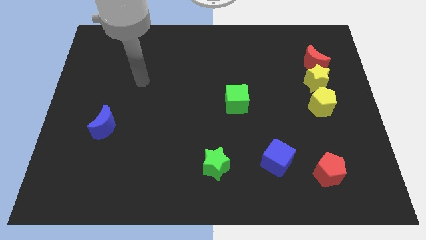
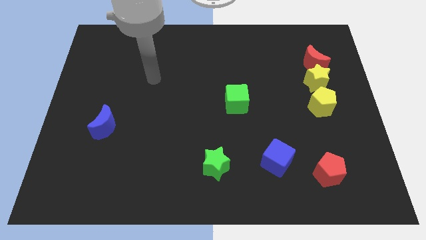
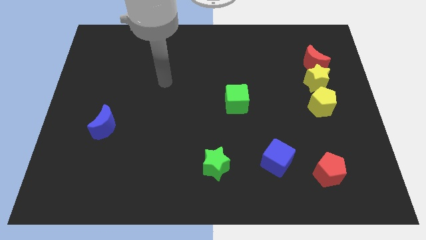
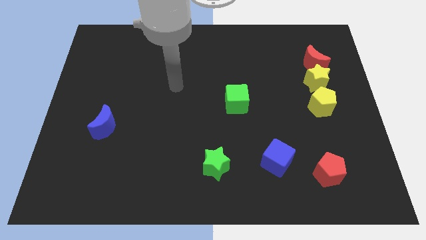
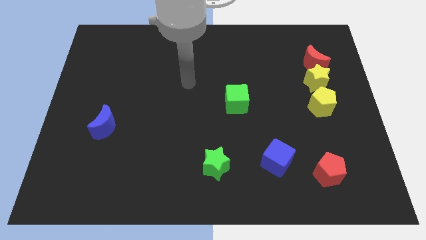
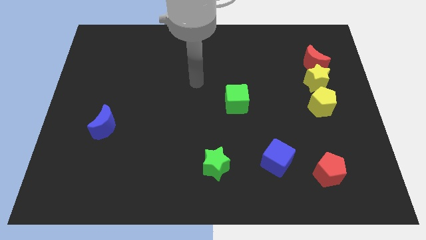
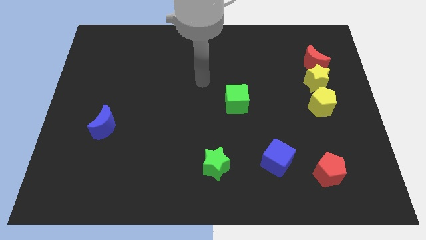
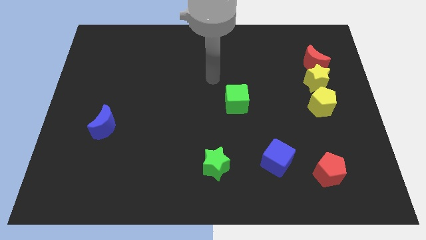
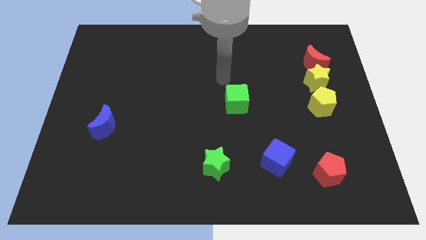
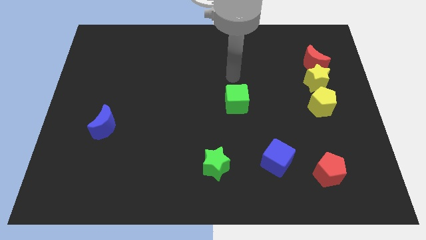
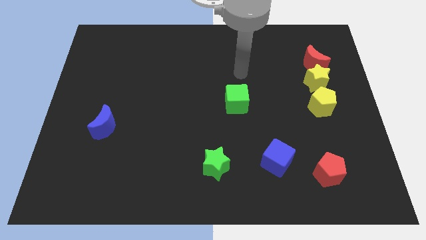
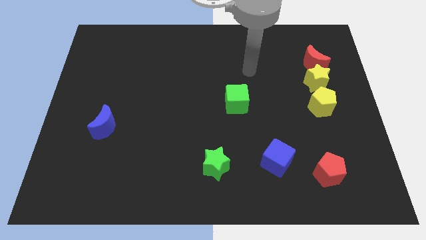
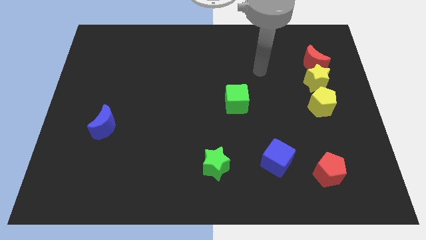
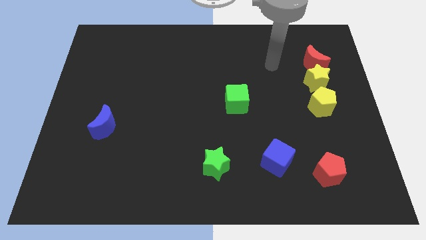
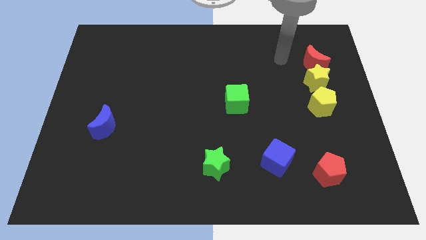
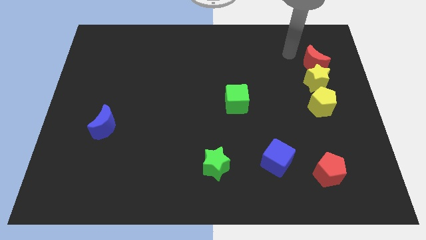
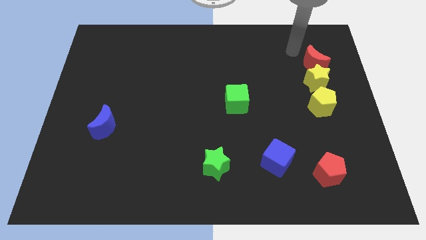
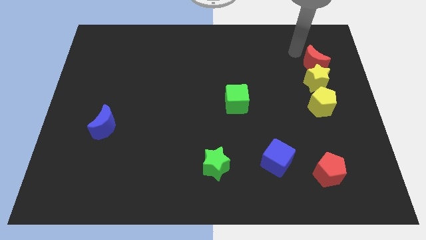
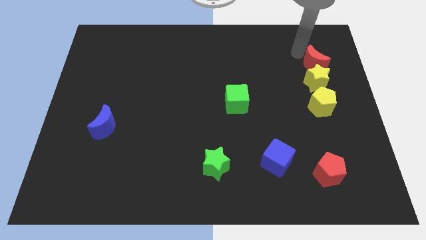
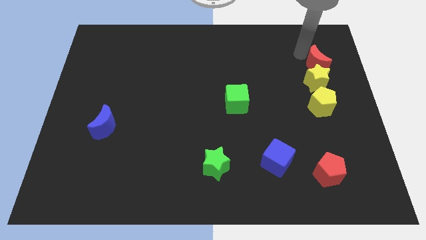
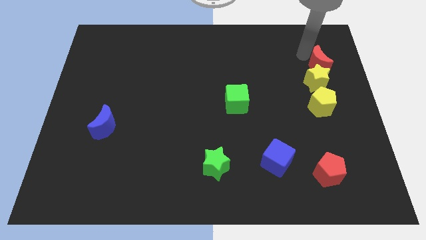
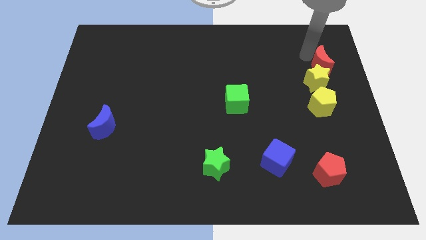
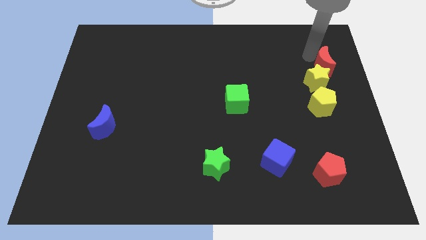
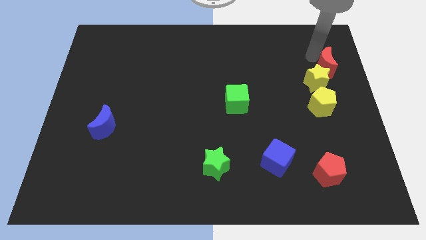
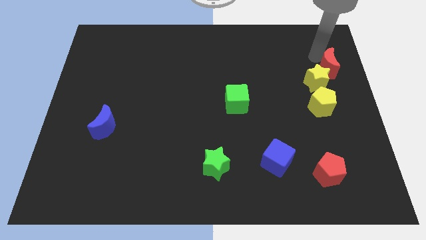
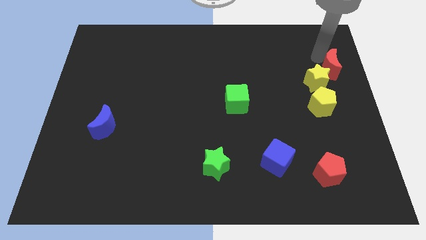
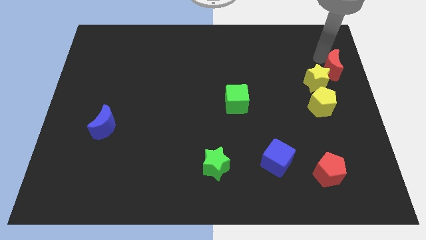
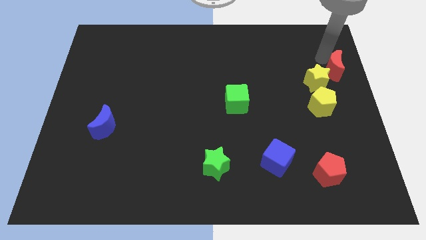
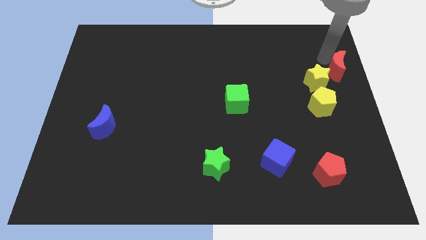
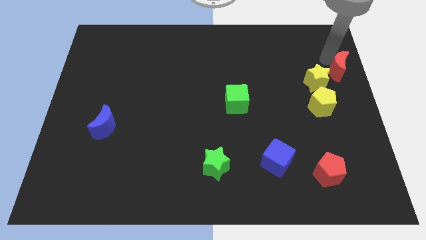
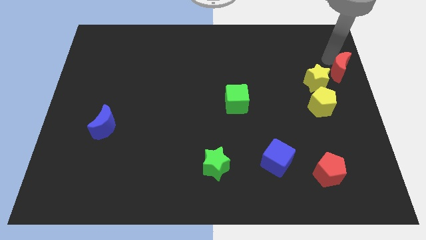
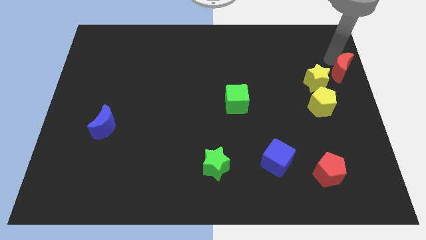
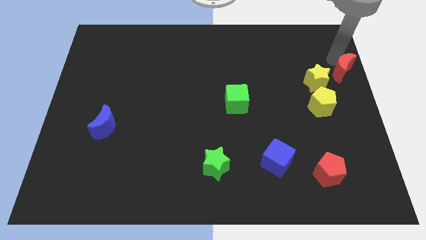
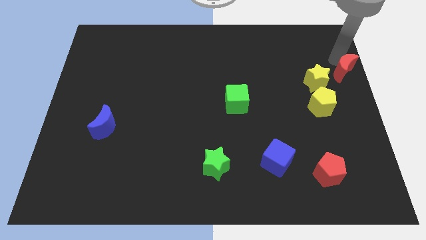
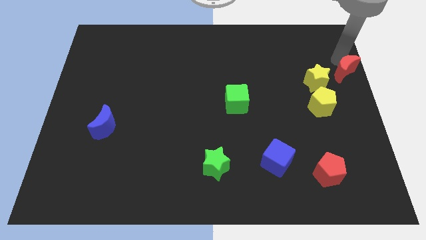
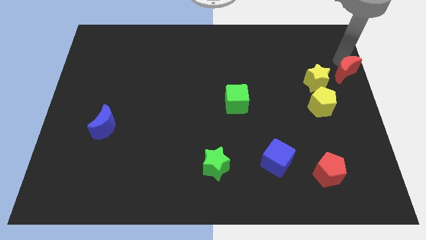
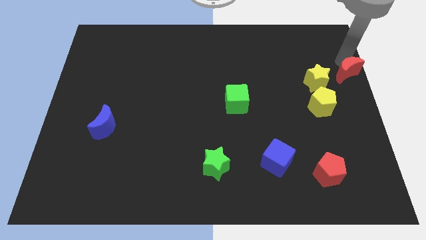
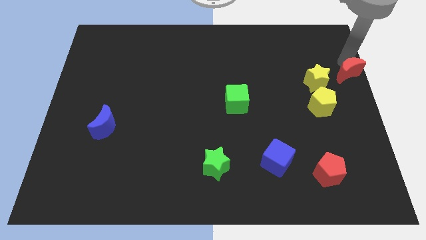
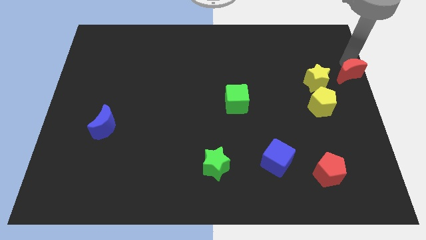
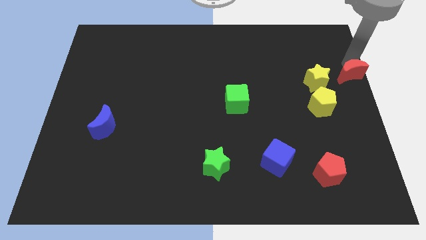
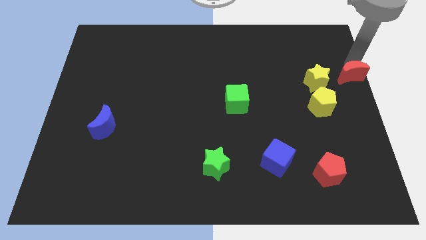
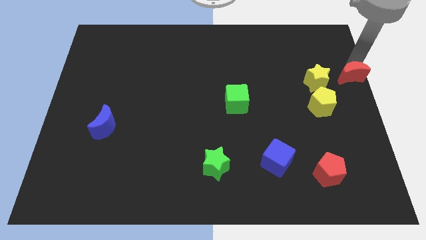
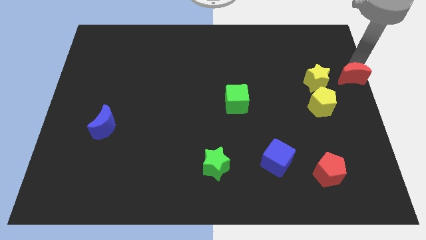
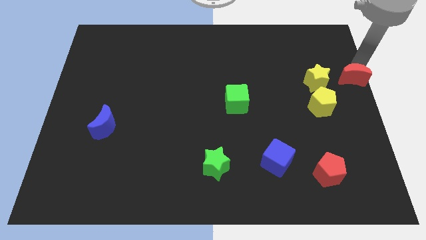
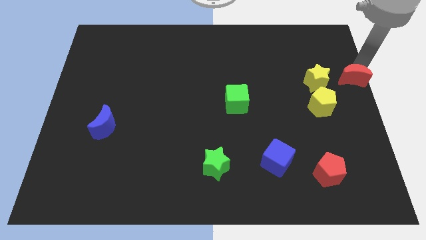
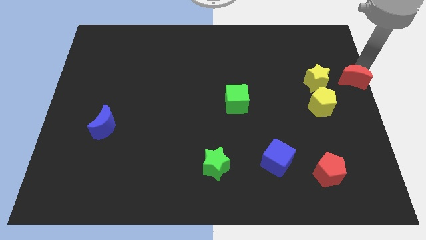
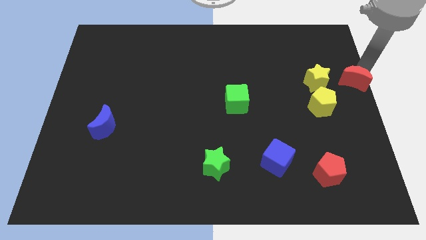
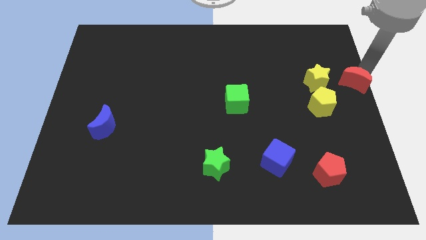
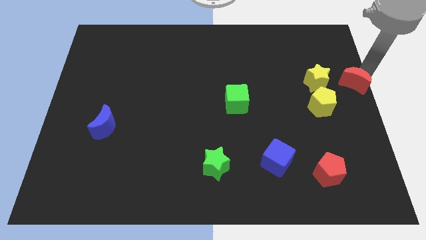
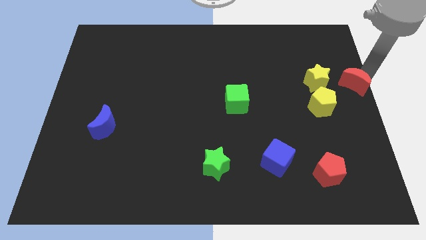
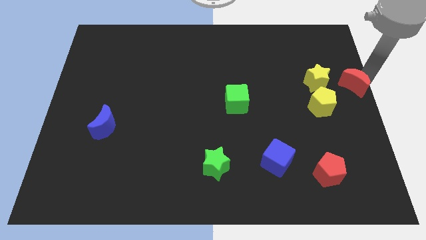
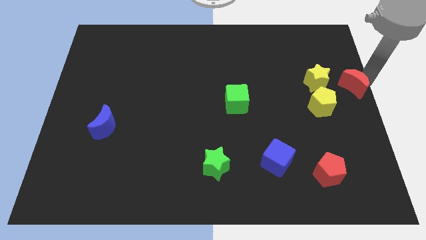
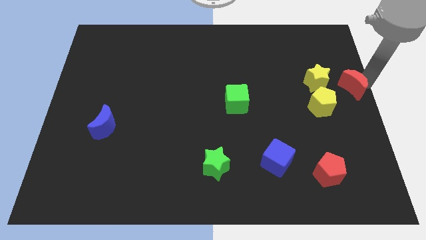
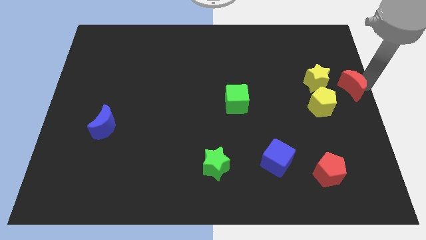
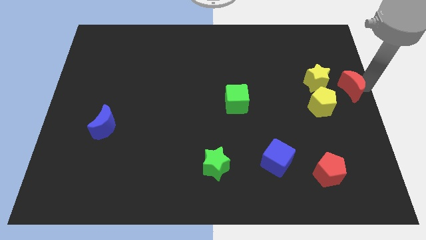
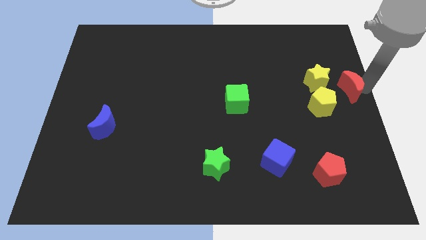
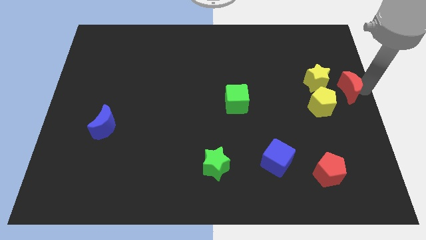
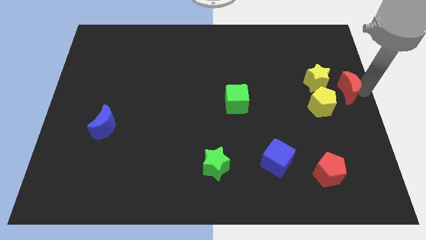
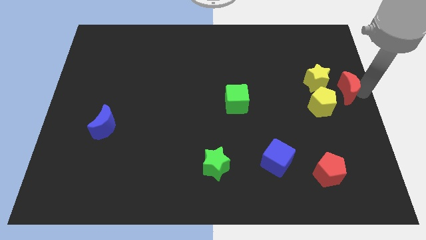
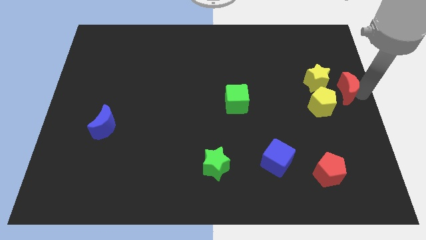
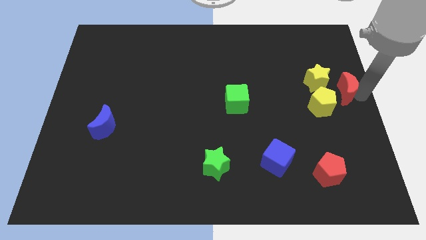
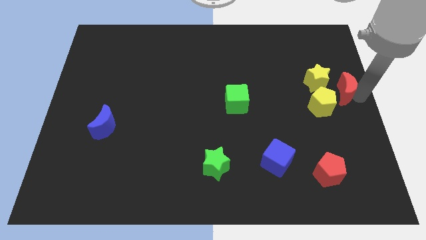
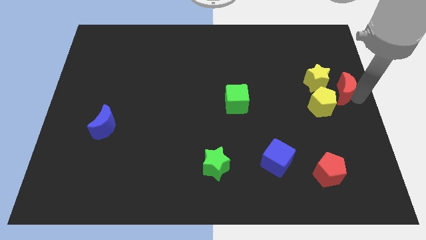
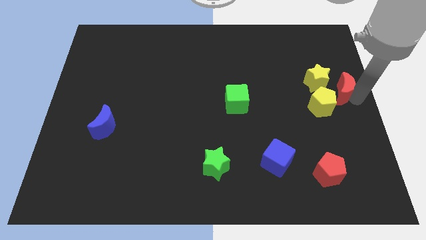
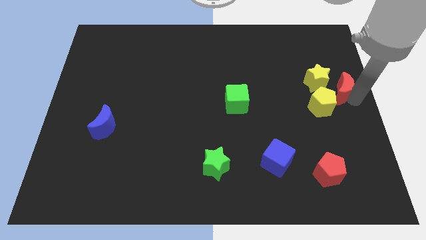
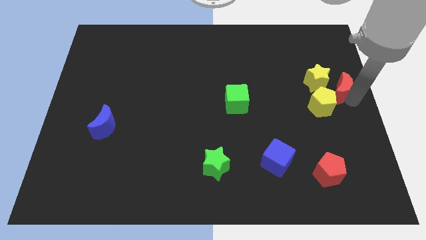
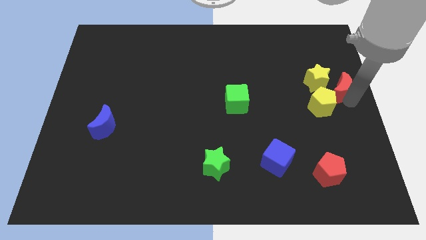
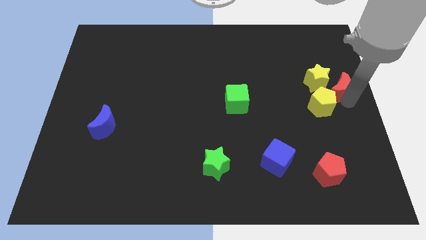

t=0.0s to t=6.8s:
slide the red moon towards the yellow pentagon

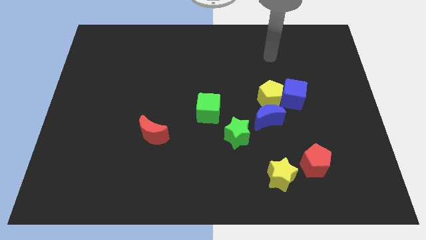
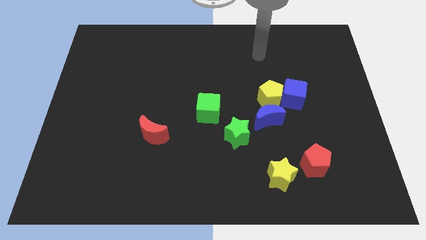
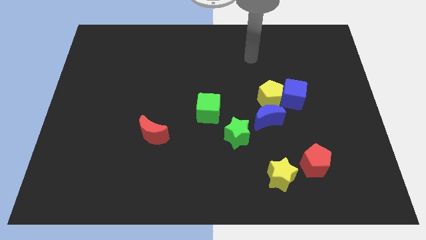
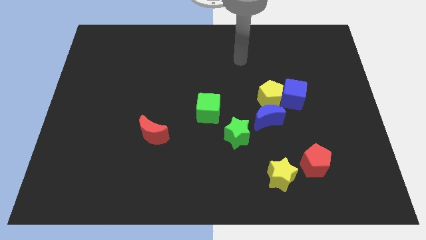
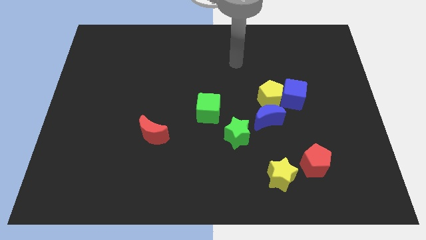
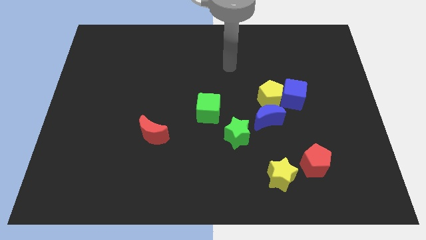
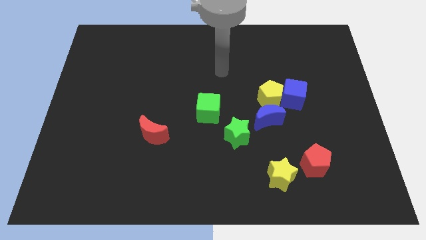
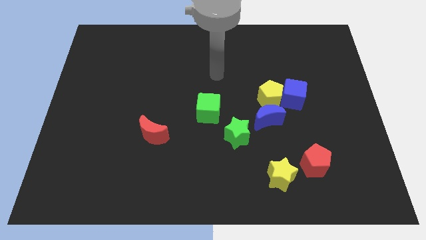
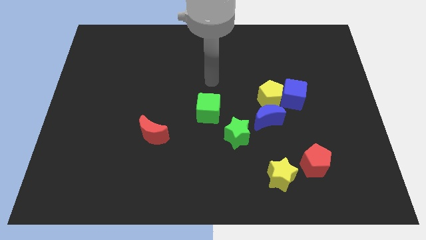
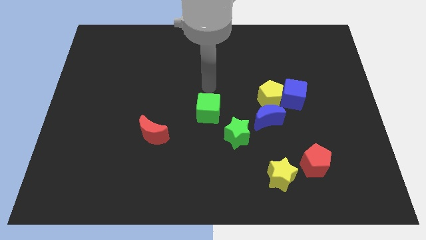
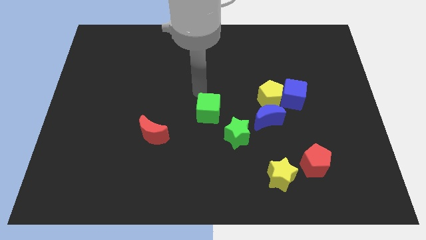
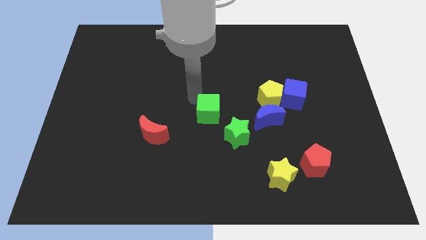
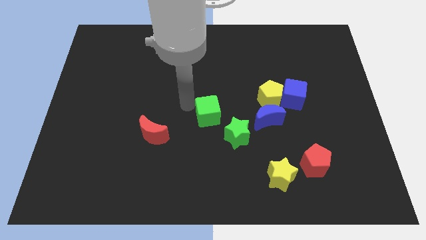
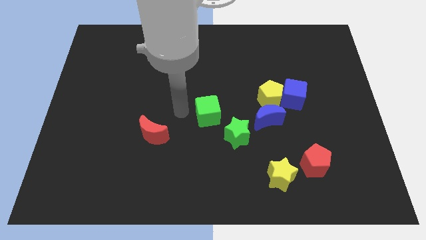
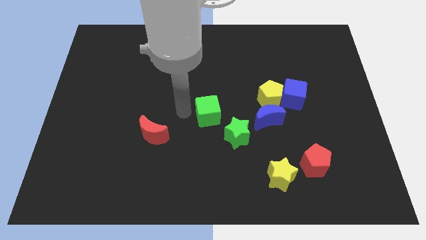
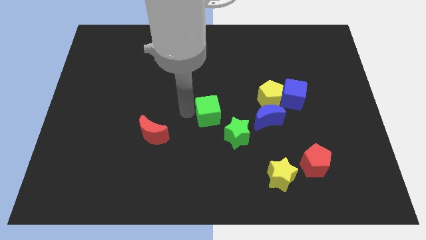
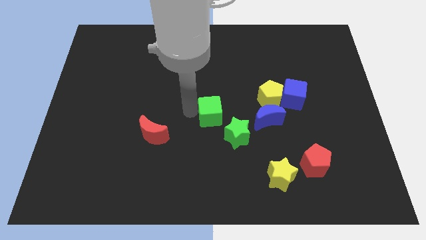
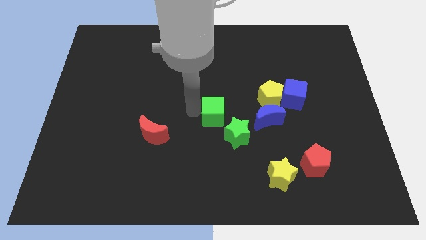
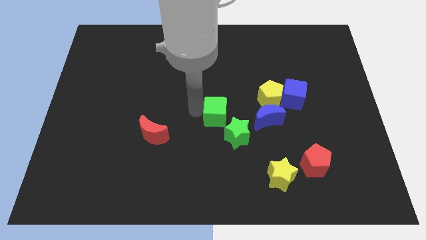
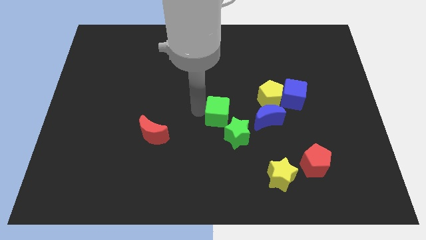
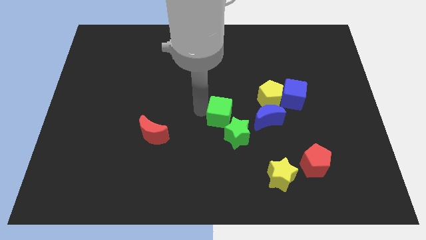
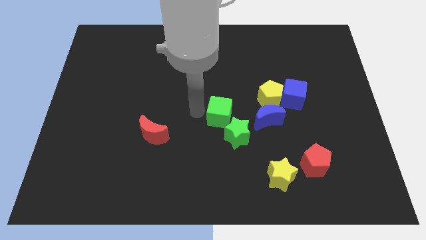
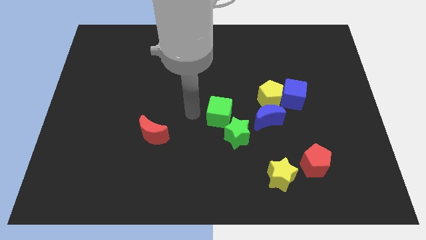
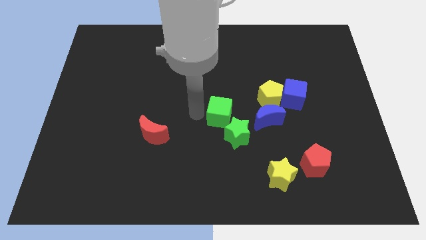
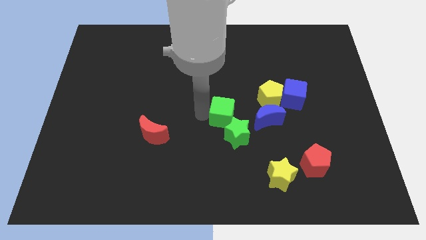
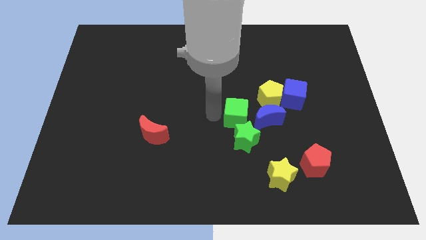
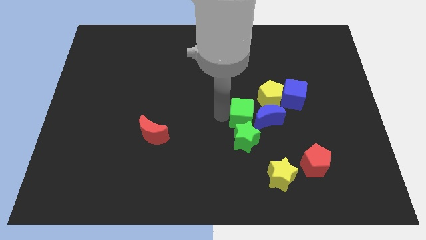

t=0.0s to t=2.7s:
slide the green cube to the blue moon
